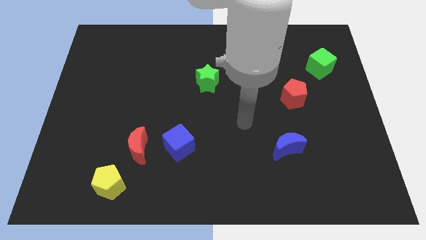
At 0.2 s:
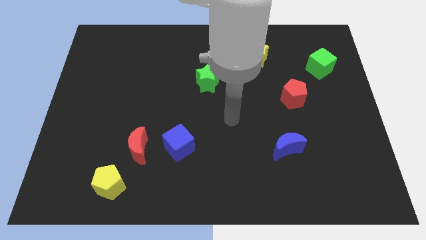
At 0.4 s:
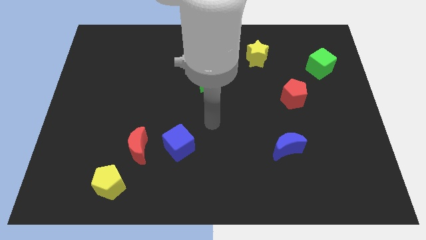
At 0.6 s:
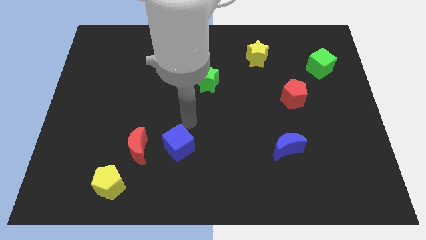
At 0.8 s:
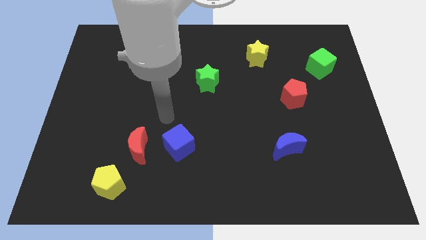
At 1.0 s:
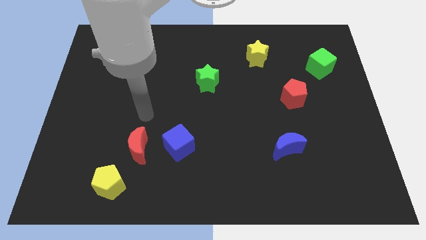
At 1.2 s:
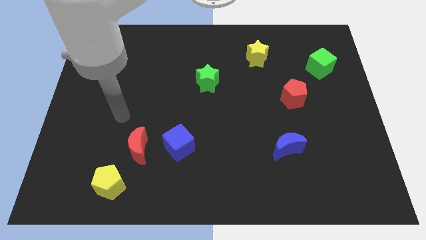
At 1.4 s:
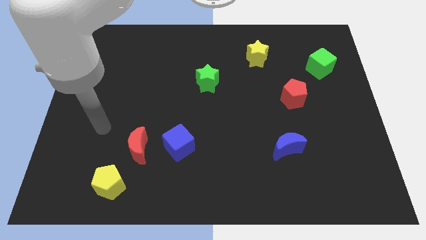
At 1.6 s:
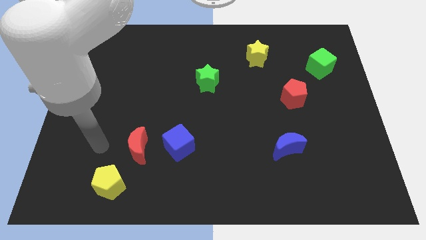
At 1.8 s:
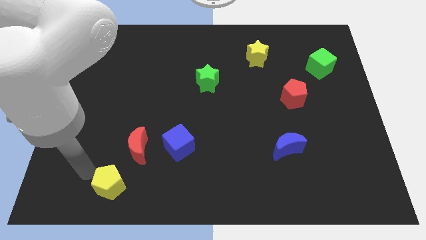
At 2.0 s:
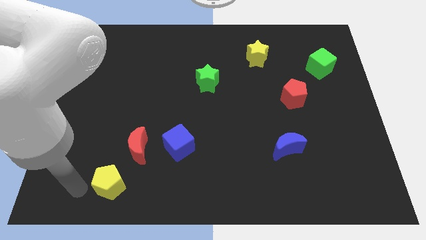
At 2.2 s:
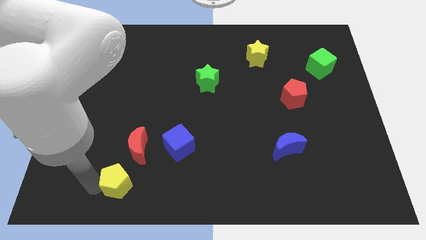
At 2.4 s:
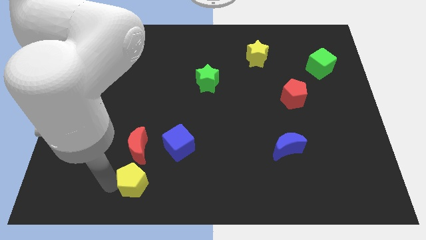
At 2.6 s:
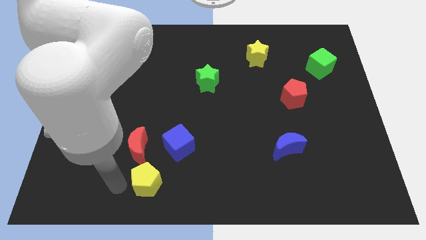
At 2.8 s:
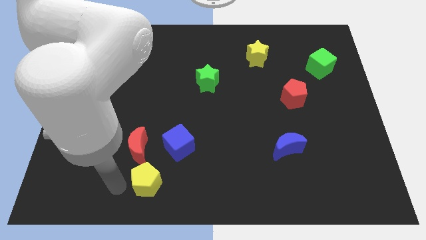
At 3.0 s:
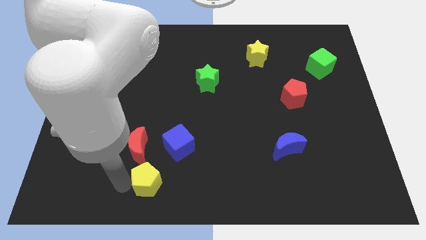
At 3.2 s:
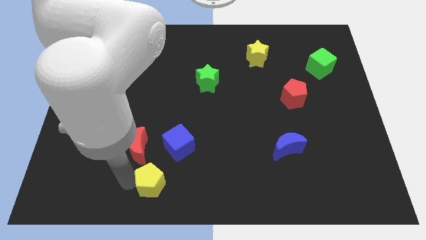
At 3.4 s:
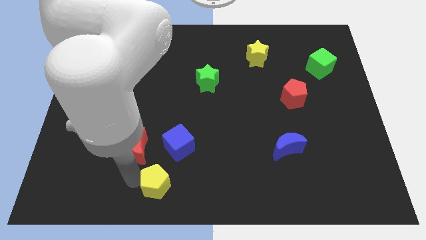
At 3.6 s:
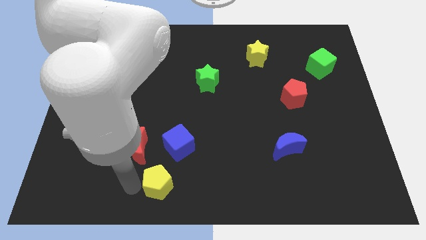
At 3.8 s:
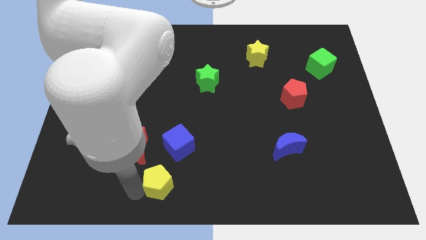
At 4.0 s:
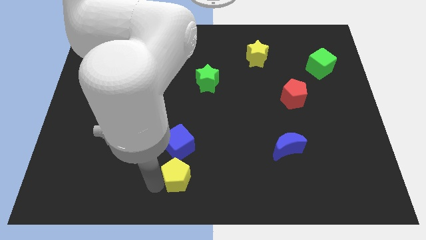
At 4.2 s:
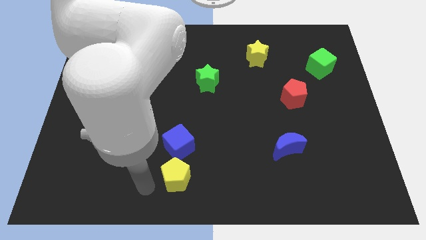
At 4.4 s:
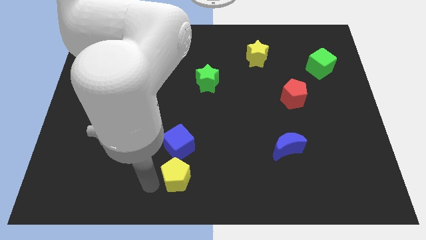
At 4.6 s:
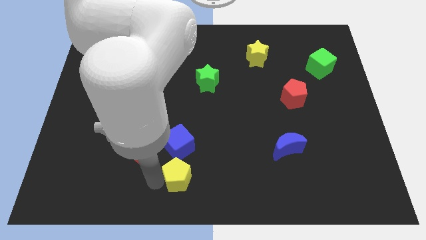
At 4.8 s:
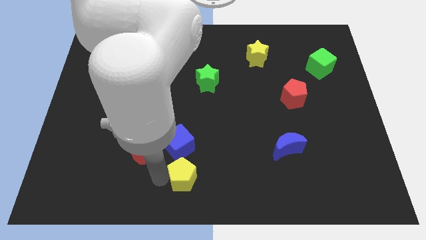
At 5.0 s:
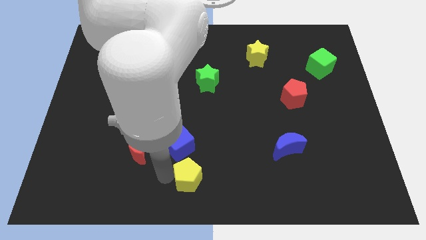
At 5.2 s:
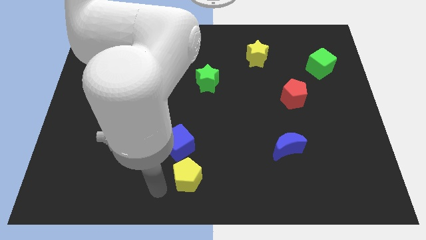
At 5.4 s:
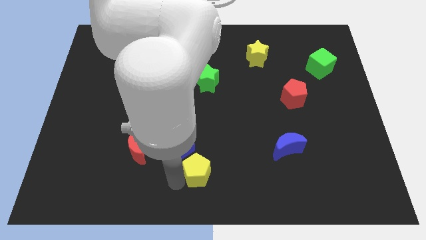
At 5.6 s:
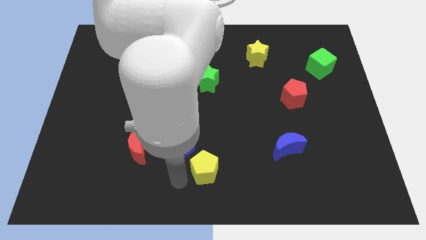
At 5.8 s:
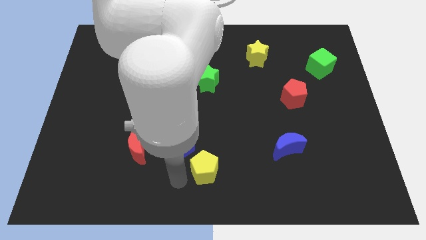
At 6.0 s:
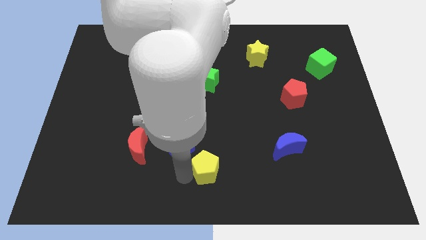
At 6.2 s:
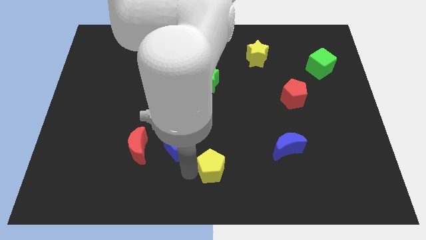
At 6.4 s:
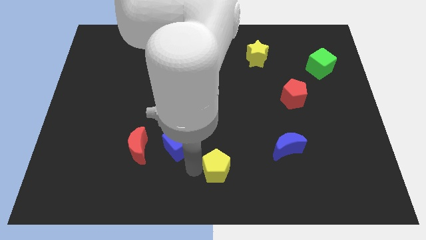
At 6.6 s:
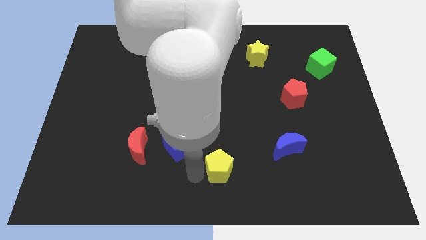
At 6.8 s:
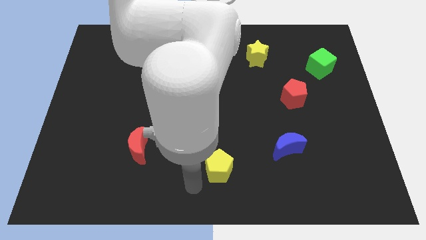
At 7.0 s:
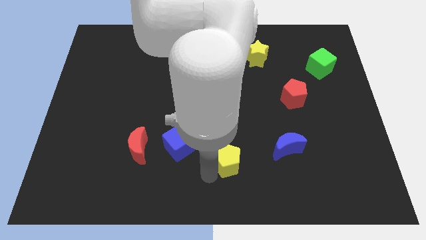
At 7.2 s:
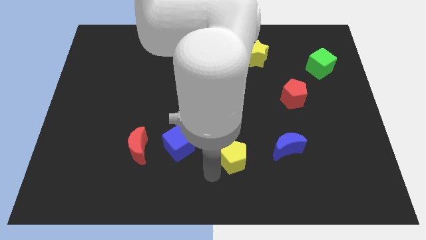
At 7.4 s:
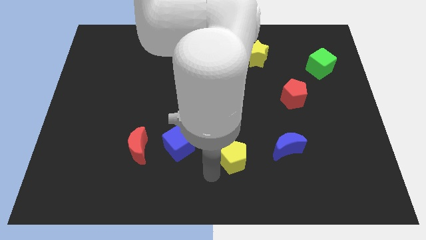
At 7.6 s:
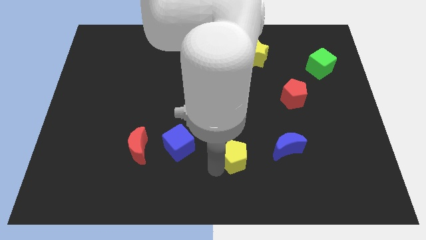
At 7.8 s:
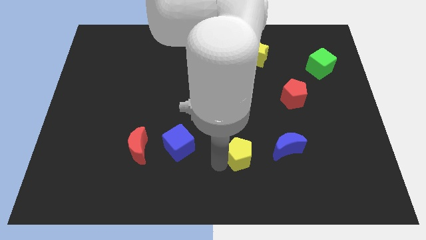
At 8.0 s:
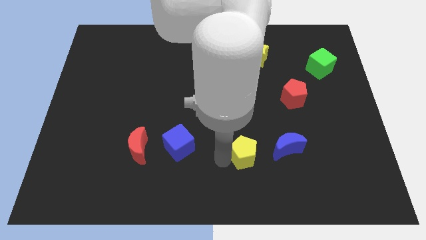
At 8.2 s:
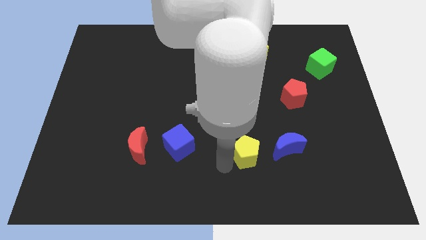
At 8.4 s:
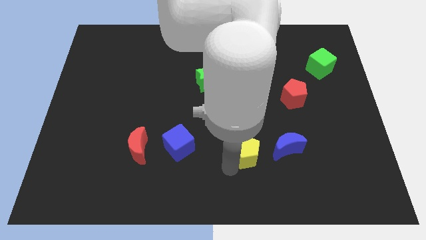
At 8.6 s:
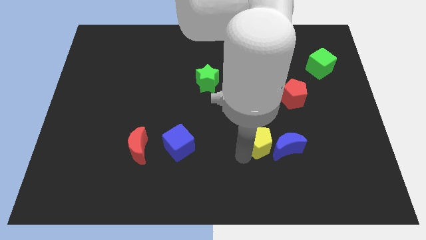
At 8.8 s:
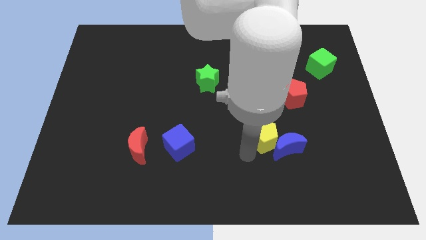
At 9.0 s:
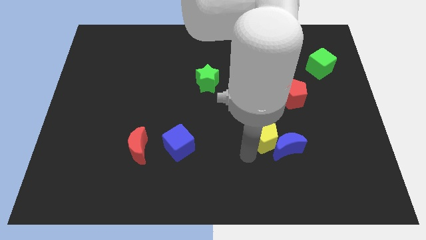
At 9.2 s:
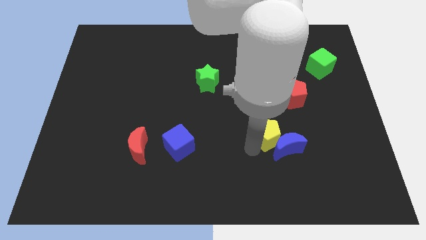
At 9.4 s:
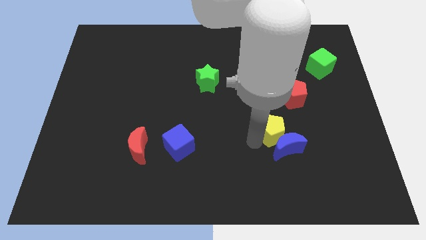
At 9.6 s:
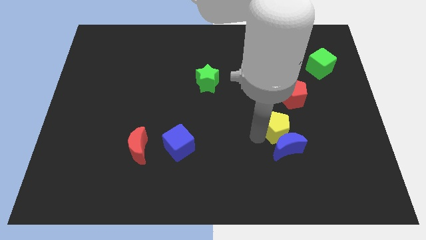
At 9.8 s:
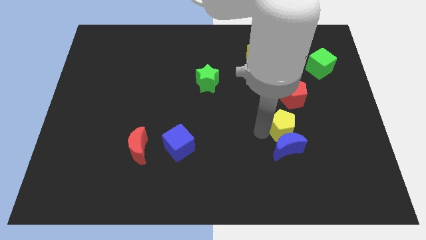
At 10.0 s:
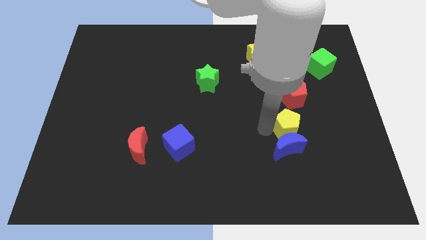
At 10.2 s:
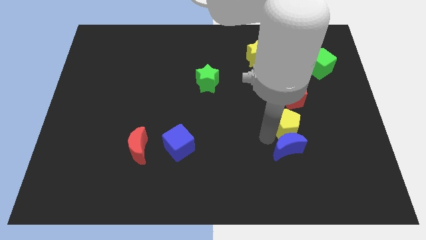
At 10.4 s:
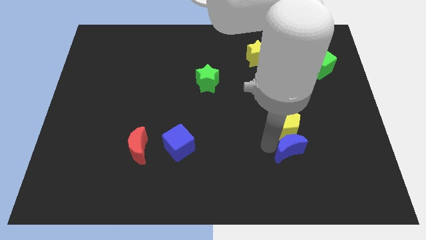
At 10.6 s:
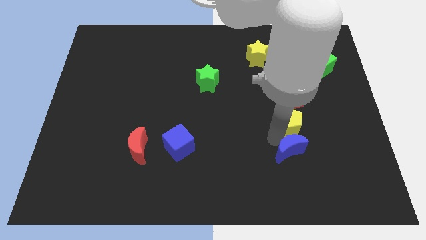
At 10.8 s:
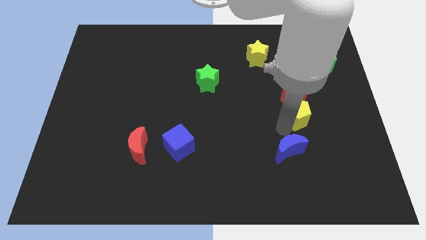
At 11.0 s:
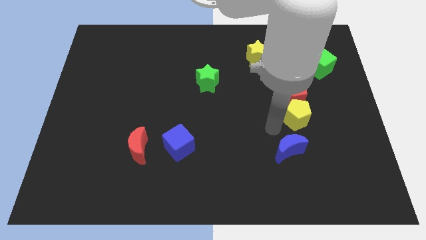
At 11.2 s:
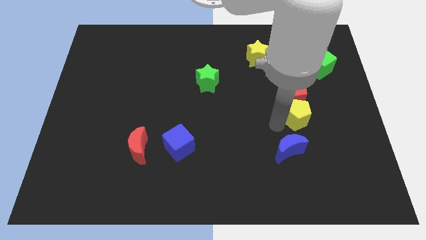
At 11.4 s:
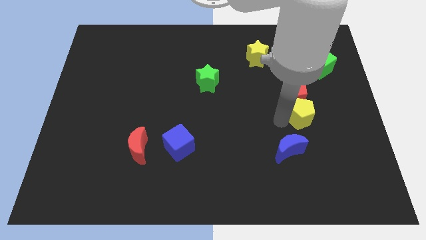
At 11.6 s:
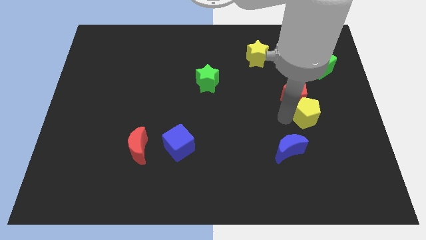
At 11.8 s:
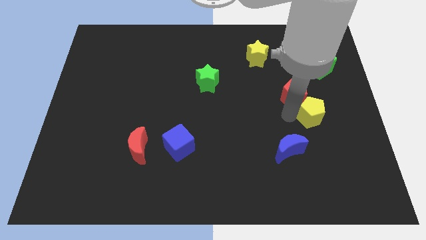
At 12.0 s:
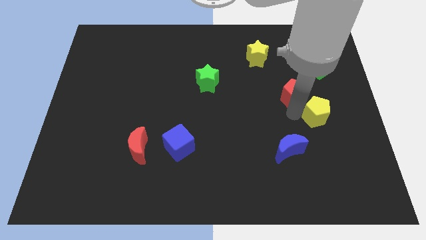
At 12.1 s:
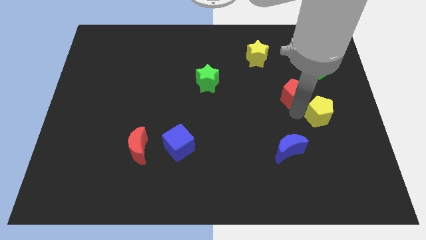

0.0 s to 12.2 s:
move the yellow pentagon to the bottom side of the green cube

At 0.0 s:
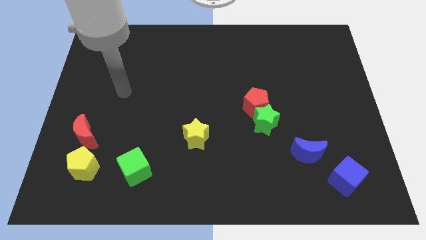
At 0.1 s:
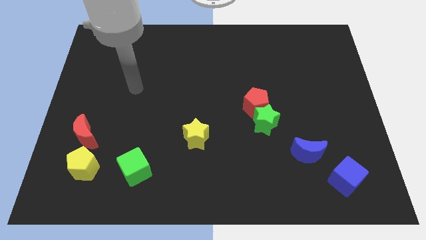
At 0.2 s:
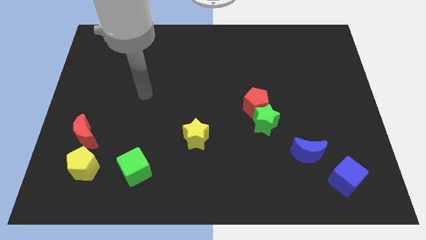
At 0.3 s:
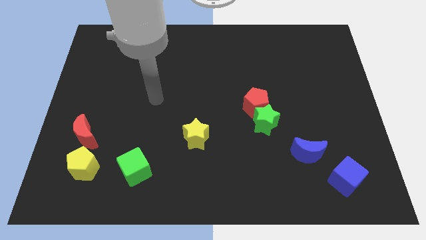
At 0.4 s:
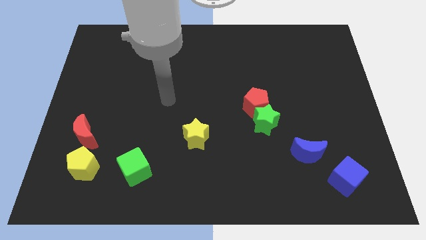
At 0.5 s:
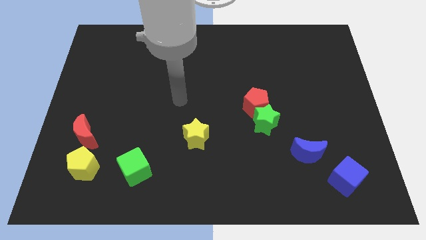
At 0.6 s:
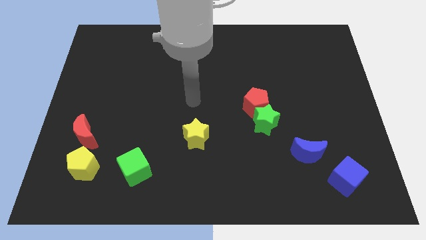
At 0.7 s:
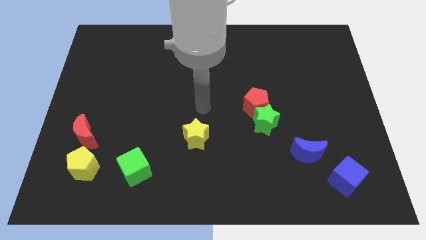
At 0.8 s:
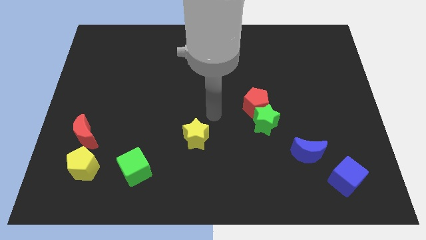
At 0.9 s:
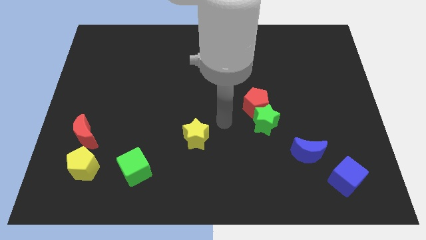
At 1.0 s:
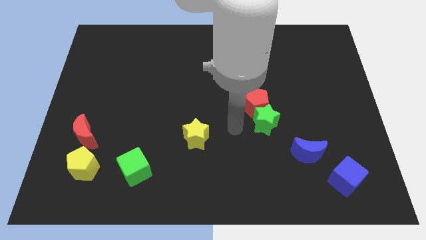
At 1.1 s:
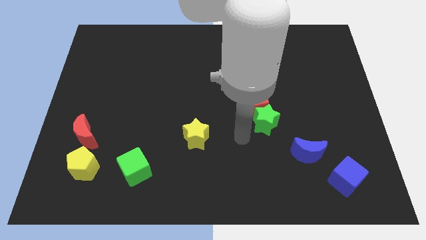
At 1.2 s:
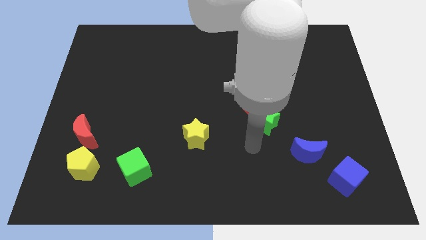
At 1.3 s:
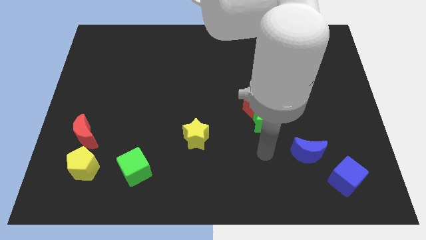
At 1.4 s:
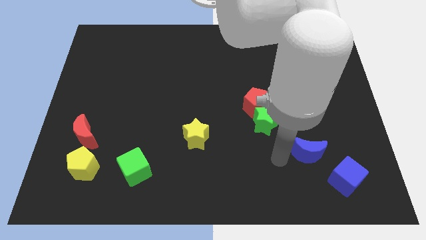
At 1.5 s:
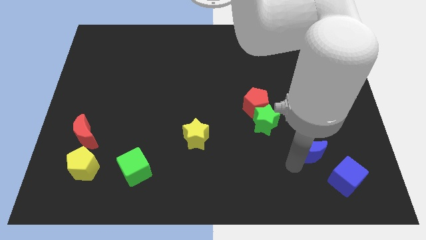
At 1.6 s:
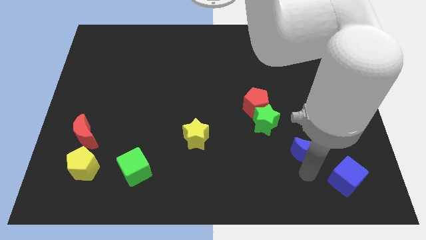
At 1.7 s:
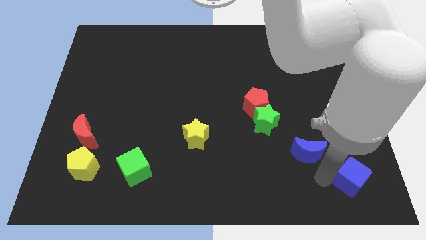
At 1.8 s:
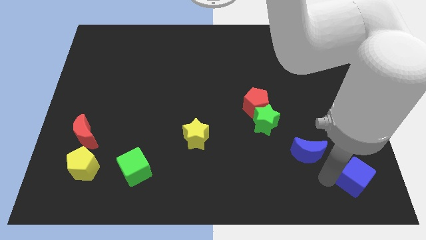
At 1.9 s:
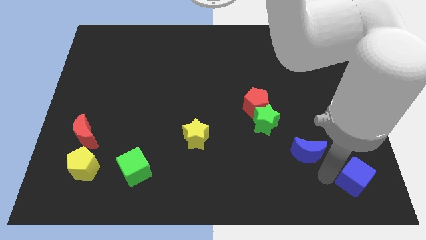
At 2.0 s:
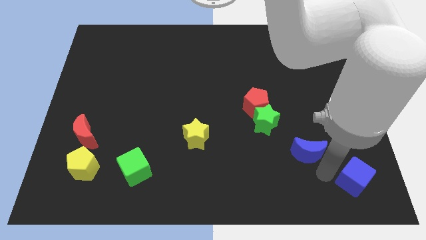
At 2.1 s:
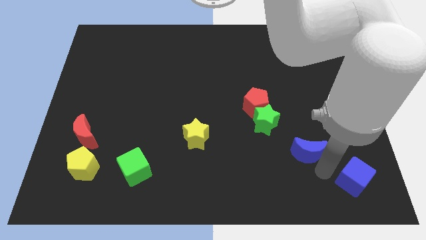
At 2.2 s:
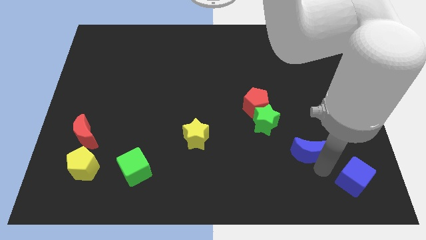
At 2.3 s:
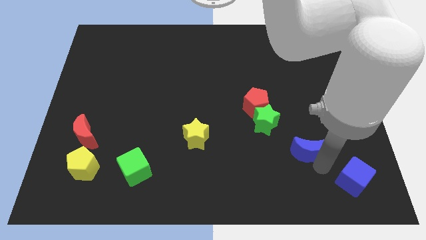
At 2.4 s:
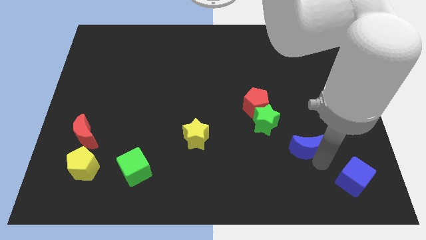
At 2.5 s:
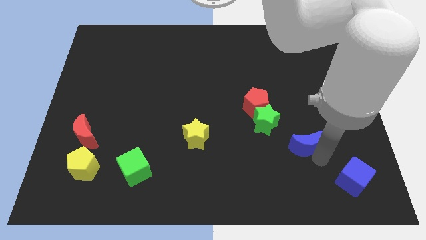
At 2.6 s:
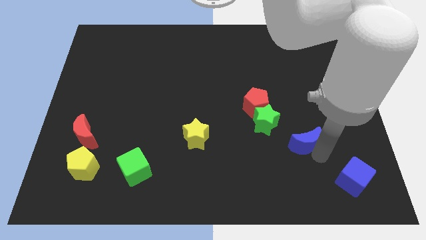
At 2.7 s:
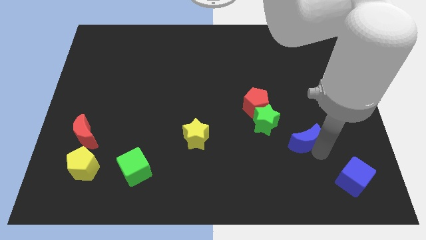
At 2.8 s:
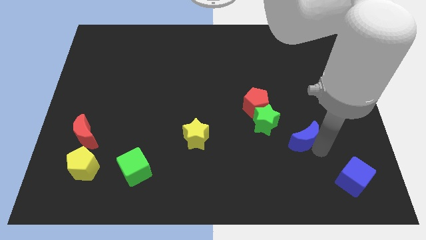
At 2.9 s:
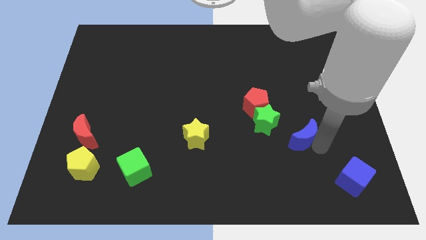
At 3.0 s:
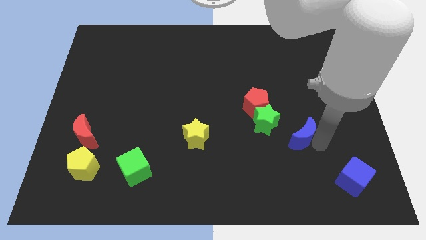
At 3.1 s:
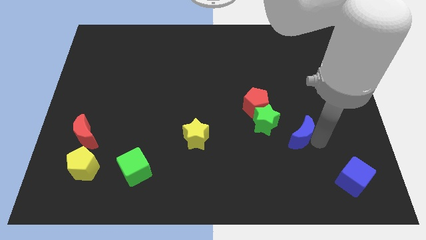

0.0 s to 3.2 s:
slide the blue moon diagonally down and to the right of the red pentagon
